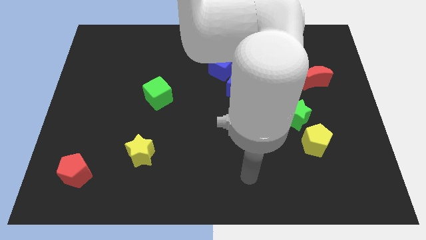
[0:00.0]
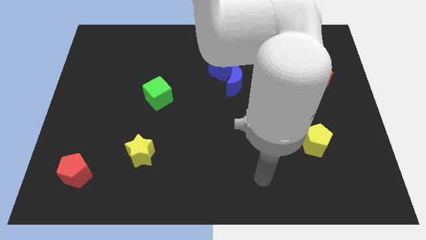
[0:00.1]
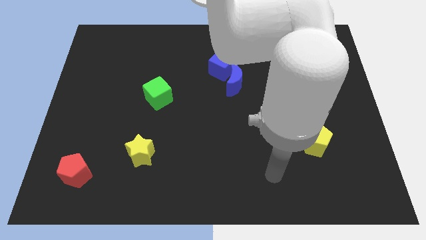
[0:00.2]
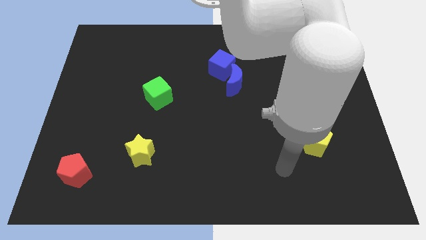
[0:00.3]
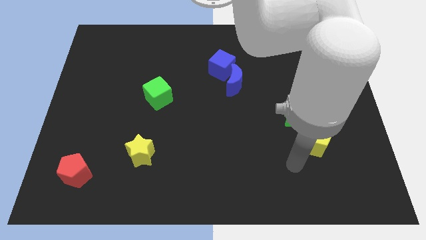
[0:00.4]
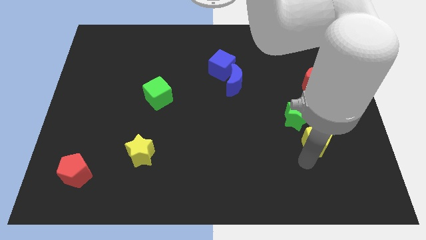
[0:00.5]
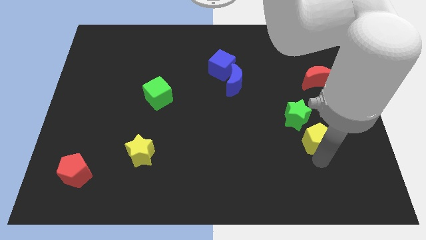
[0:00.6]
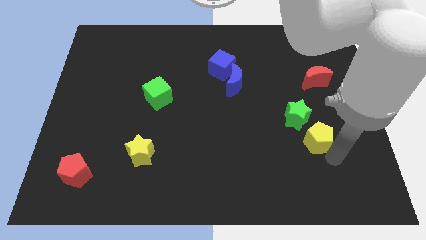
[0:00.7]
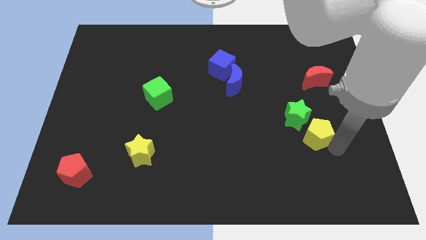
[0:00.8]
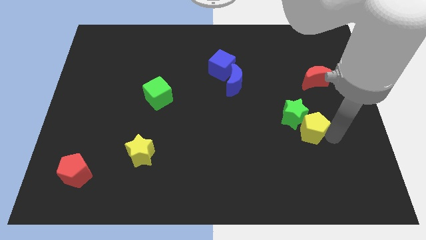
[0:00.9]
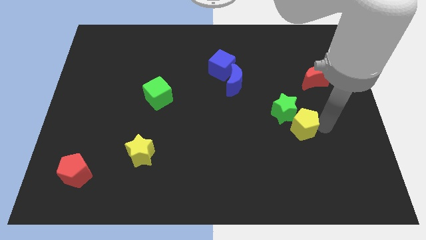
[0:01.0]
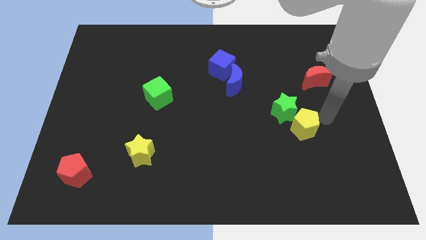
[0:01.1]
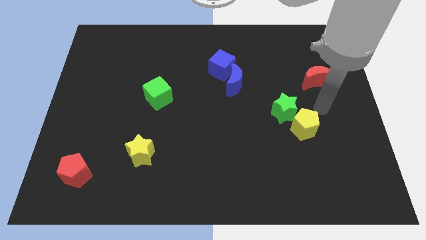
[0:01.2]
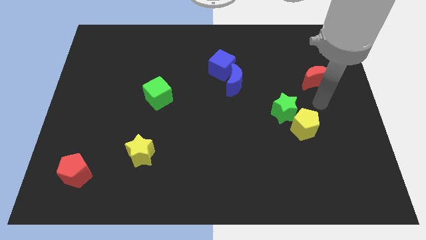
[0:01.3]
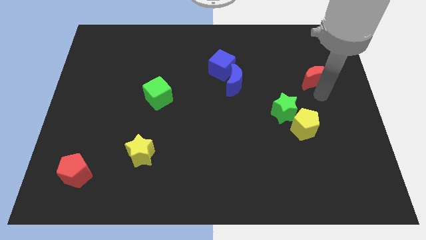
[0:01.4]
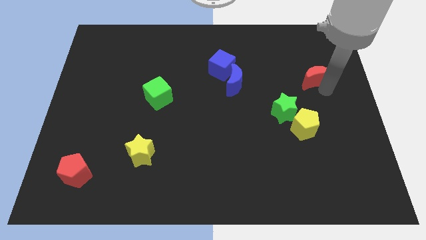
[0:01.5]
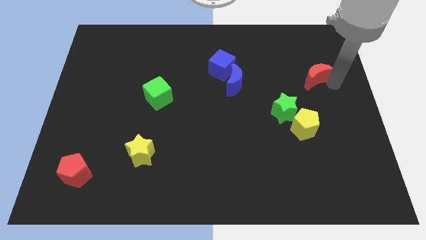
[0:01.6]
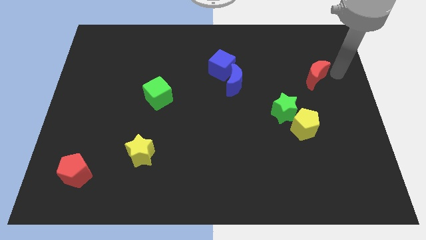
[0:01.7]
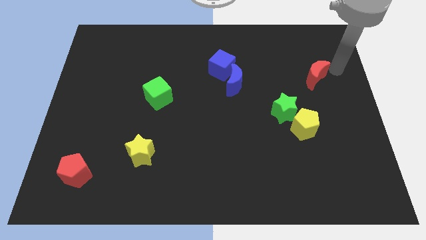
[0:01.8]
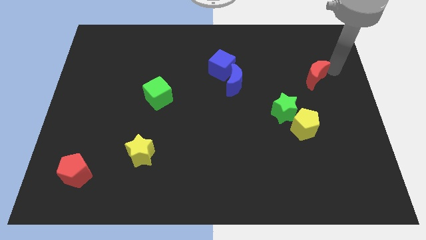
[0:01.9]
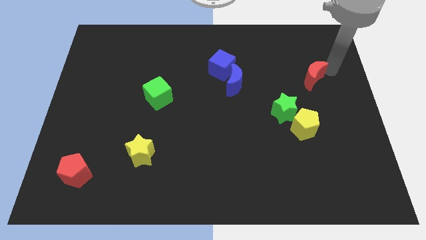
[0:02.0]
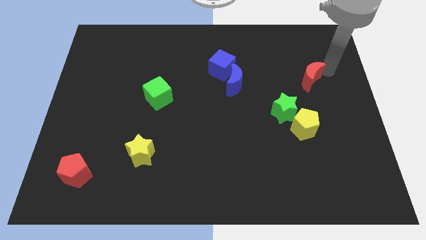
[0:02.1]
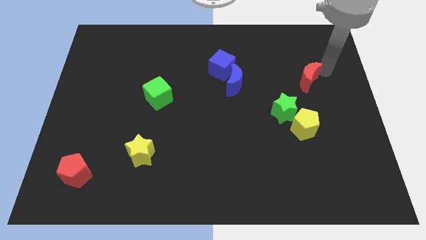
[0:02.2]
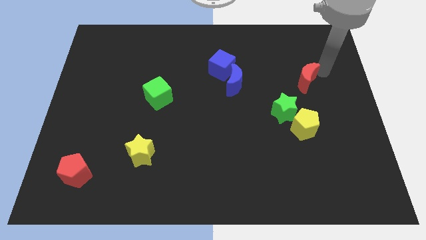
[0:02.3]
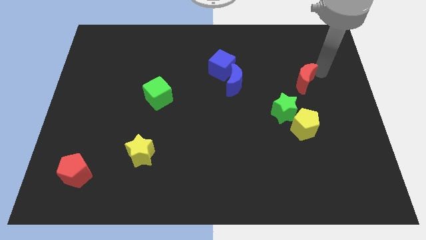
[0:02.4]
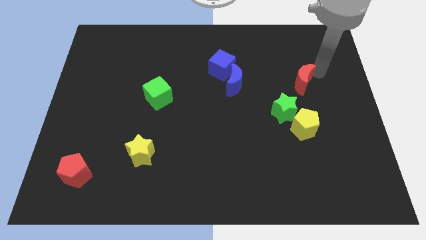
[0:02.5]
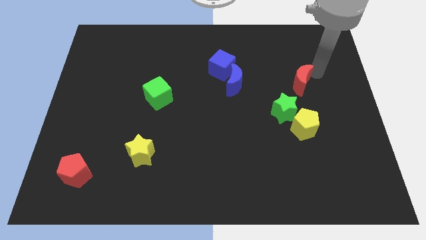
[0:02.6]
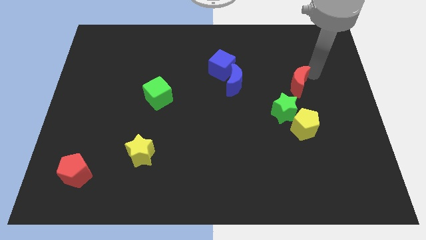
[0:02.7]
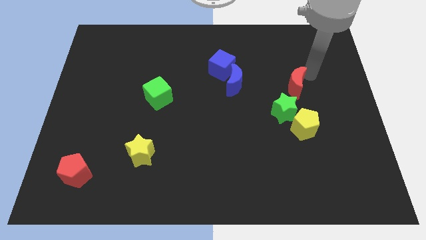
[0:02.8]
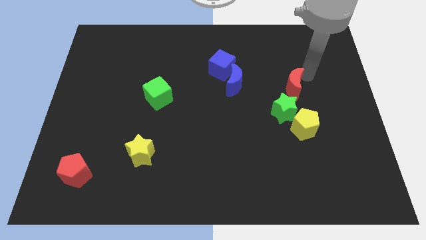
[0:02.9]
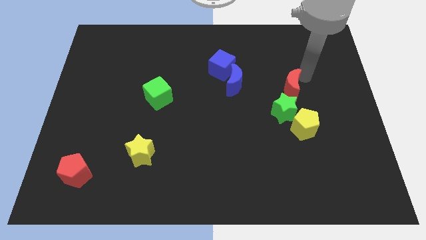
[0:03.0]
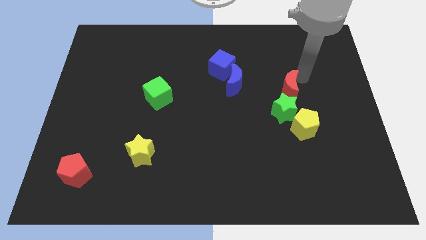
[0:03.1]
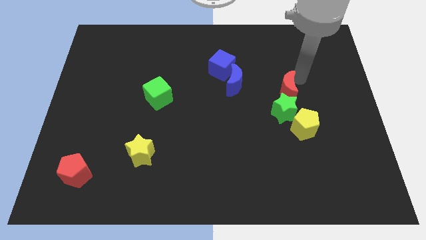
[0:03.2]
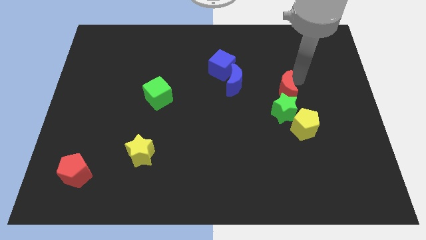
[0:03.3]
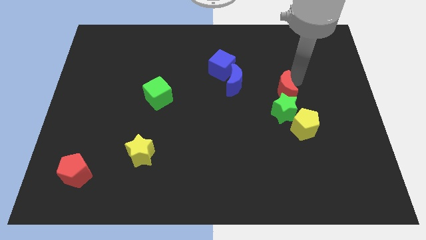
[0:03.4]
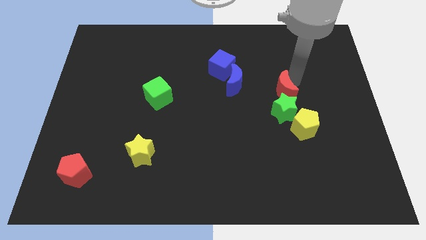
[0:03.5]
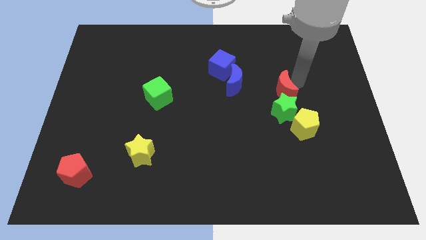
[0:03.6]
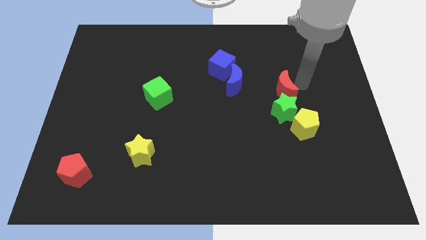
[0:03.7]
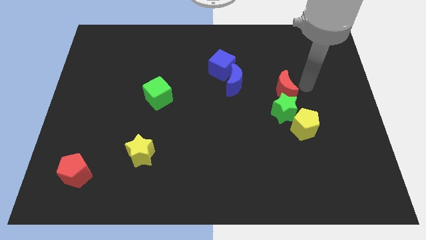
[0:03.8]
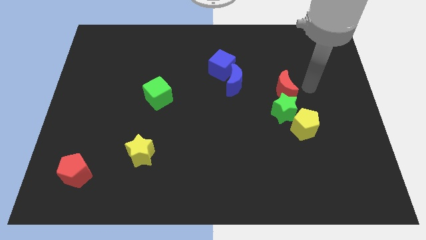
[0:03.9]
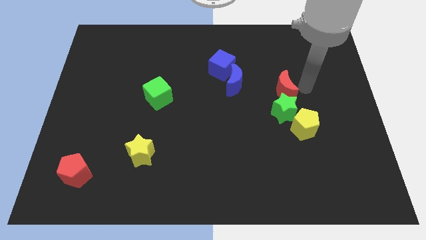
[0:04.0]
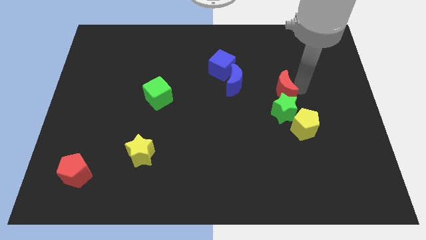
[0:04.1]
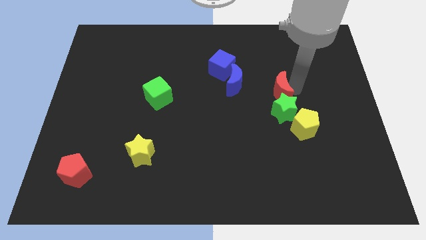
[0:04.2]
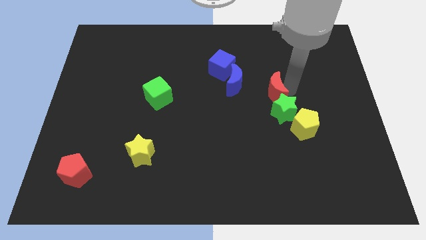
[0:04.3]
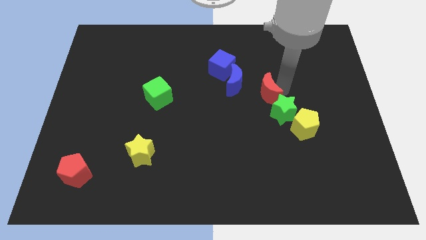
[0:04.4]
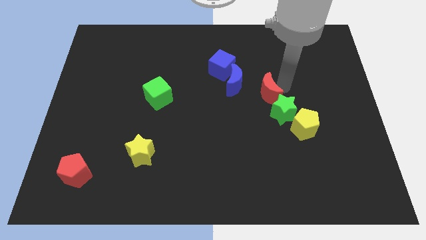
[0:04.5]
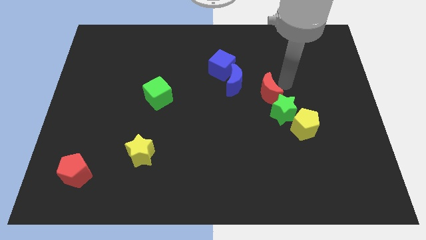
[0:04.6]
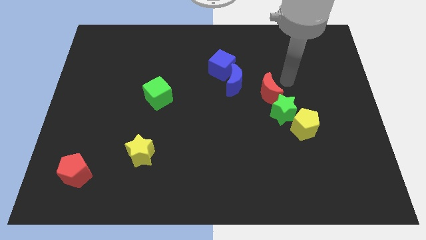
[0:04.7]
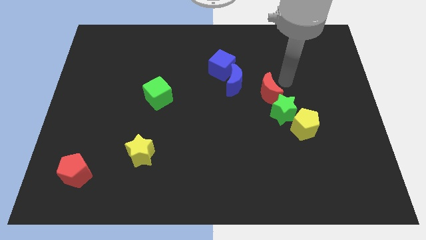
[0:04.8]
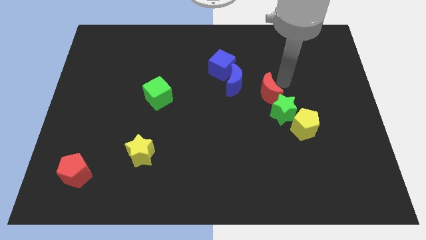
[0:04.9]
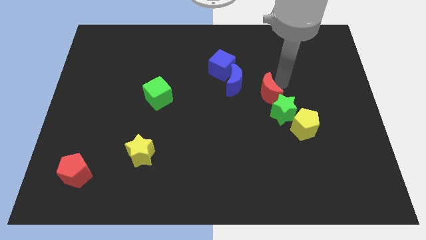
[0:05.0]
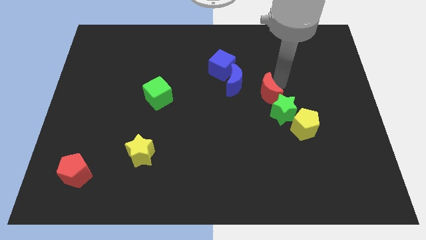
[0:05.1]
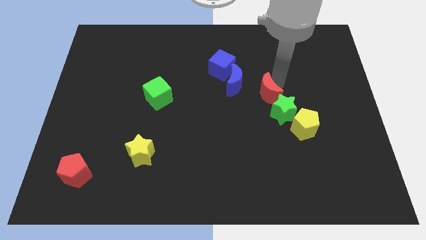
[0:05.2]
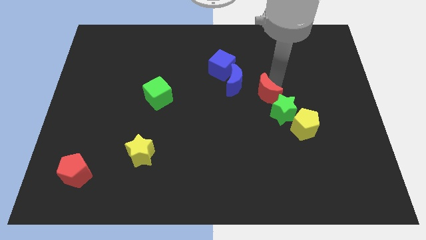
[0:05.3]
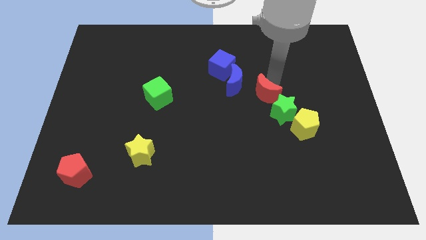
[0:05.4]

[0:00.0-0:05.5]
move the red moon to the center
